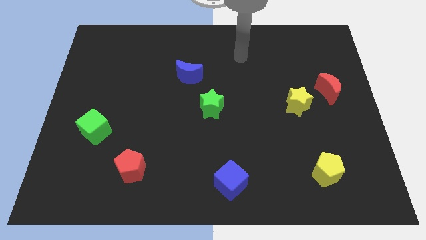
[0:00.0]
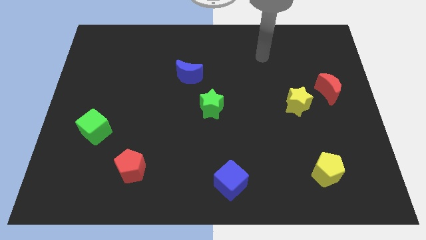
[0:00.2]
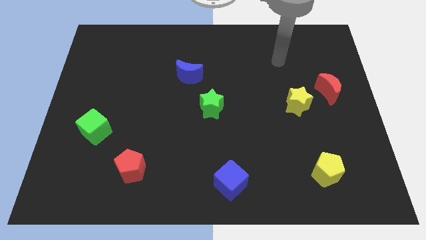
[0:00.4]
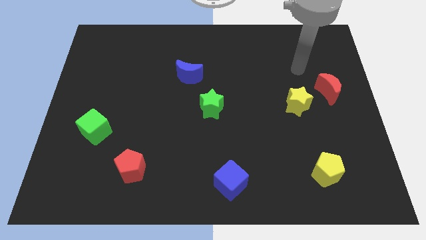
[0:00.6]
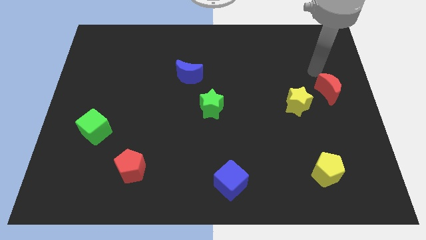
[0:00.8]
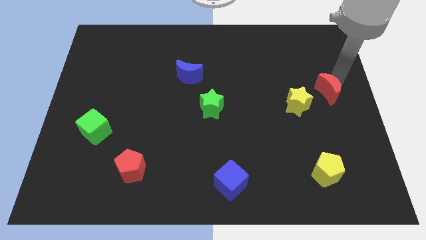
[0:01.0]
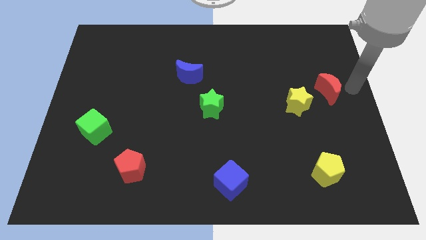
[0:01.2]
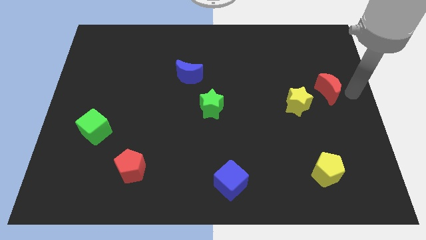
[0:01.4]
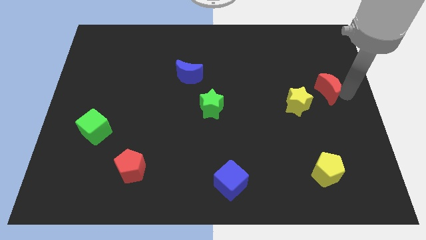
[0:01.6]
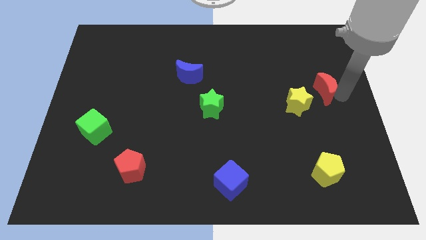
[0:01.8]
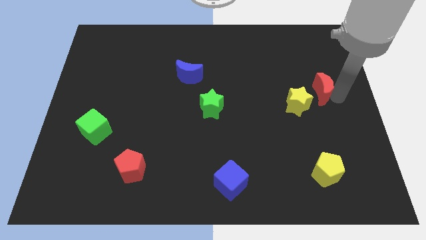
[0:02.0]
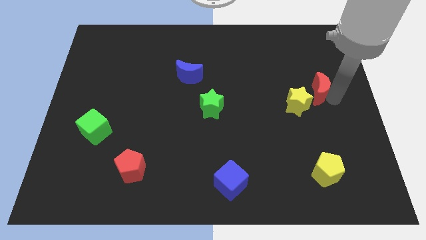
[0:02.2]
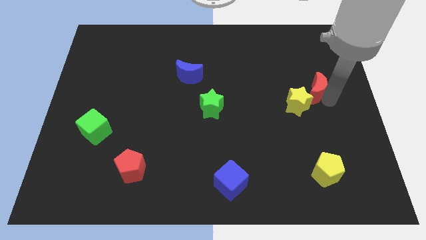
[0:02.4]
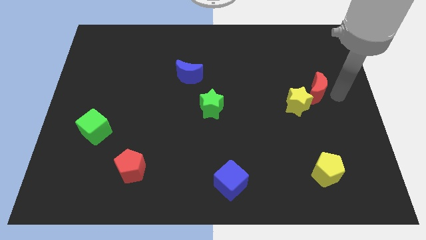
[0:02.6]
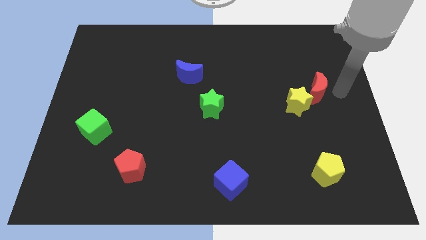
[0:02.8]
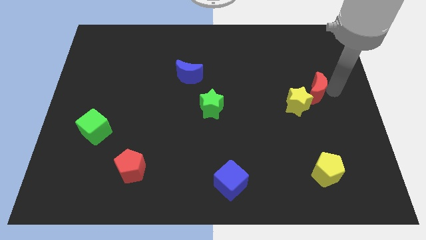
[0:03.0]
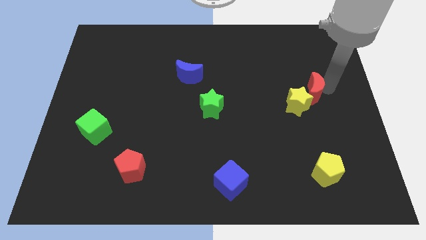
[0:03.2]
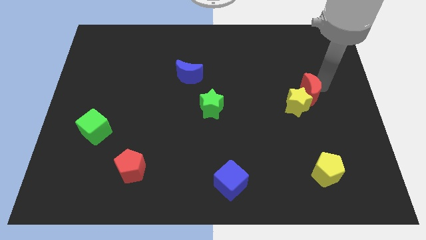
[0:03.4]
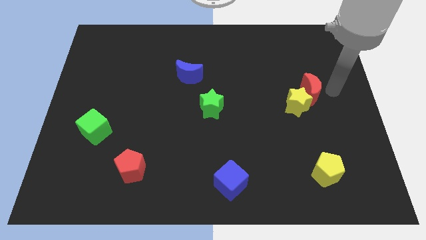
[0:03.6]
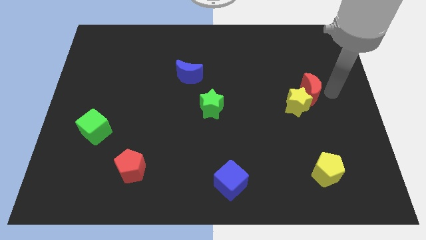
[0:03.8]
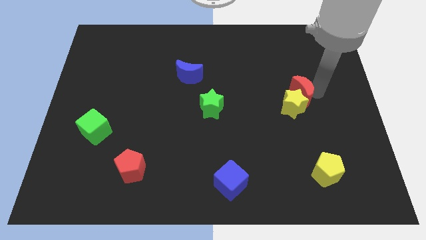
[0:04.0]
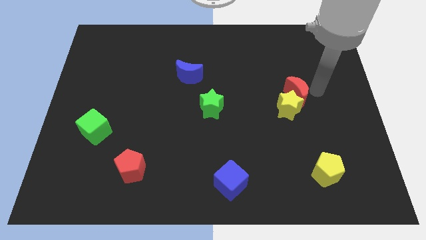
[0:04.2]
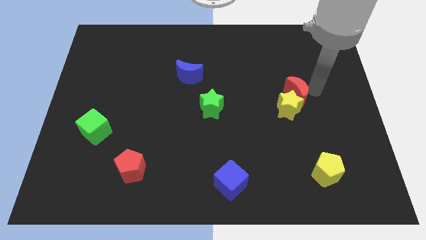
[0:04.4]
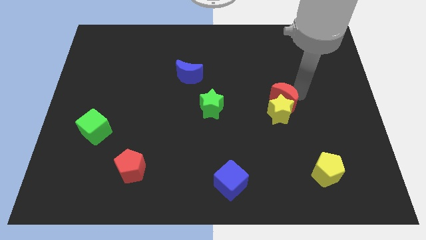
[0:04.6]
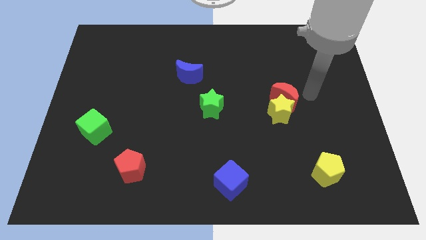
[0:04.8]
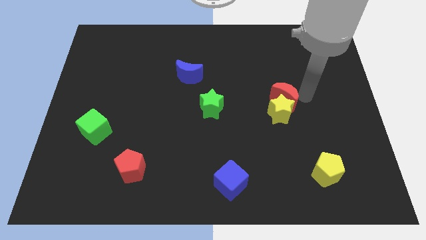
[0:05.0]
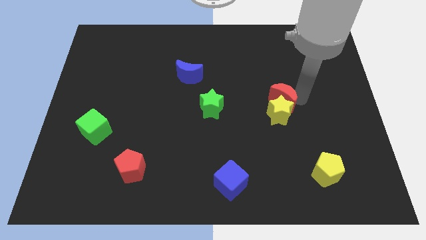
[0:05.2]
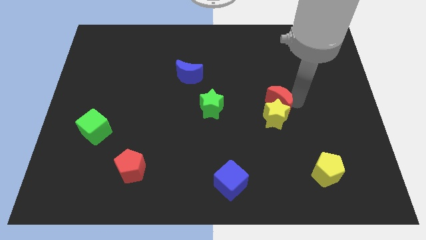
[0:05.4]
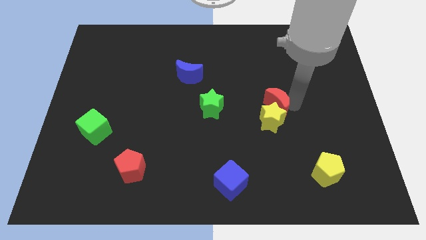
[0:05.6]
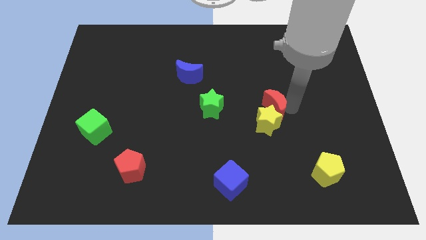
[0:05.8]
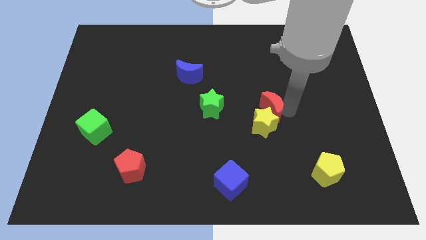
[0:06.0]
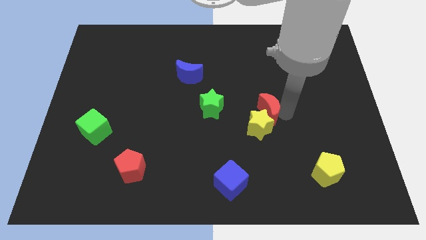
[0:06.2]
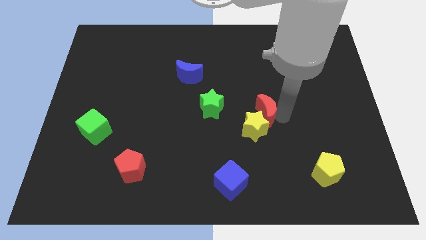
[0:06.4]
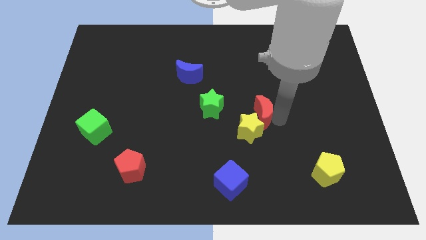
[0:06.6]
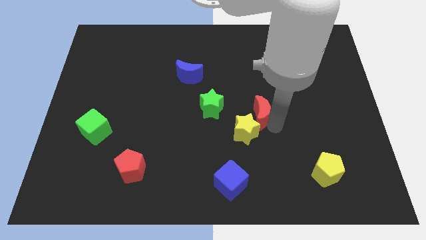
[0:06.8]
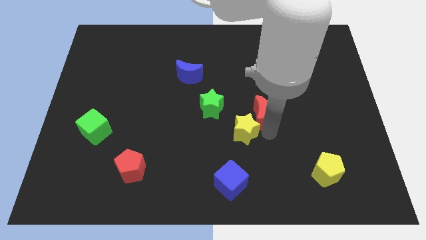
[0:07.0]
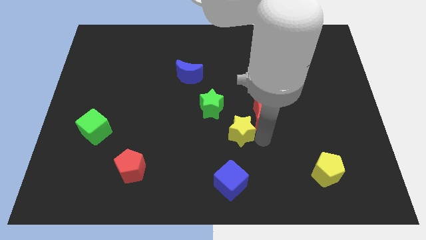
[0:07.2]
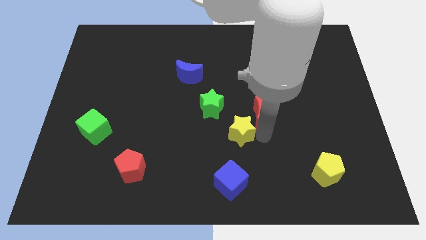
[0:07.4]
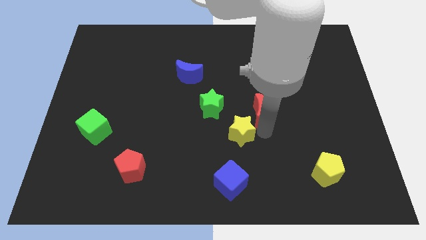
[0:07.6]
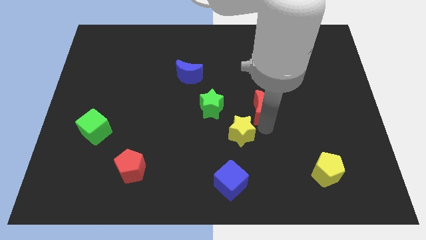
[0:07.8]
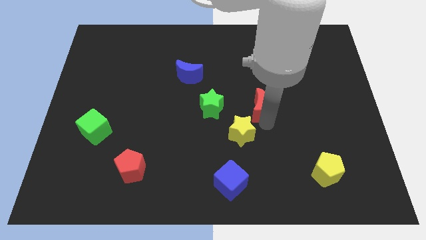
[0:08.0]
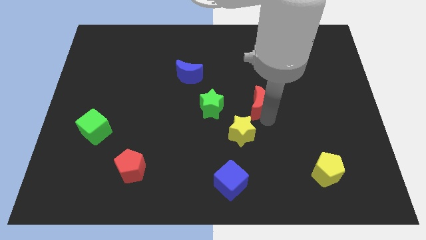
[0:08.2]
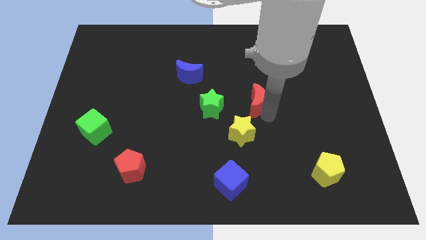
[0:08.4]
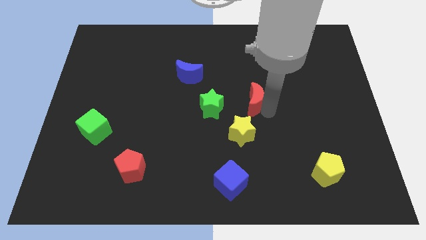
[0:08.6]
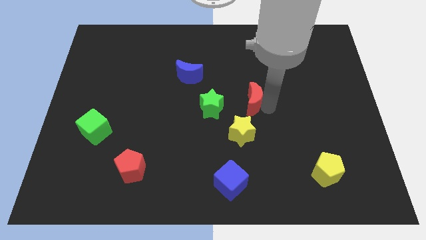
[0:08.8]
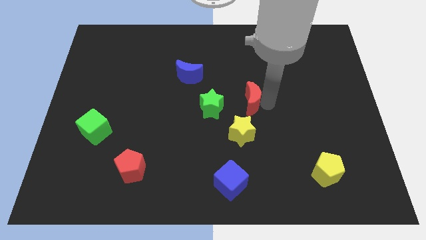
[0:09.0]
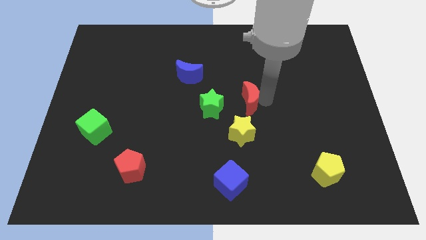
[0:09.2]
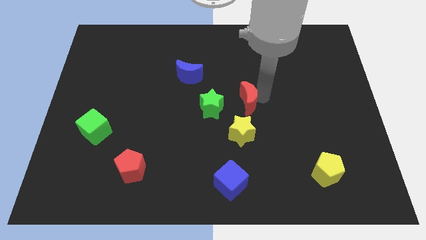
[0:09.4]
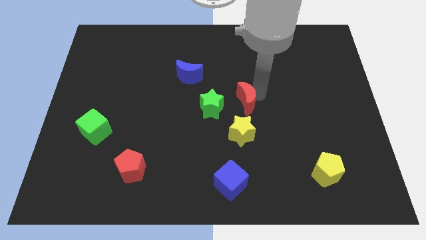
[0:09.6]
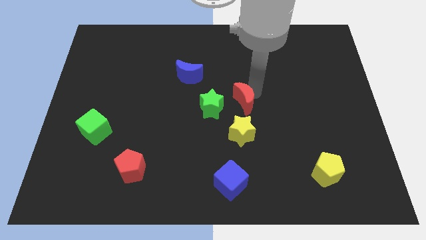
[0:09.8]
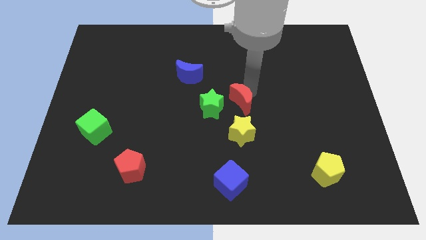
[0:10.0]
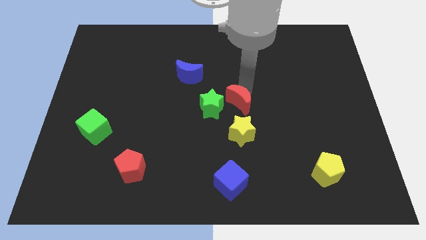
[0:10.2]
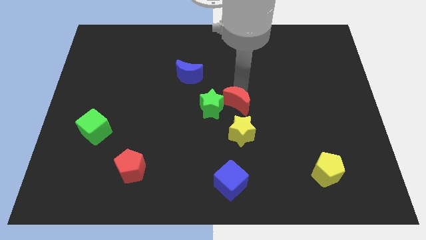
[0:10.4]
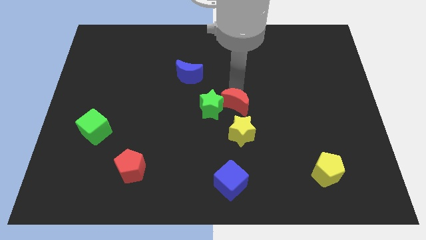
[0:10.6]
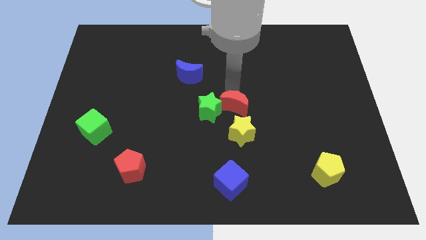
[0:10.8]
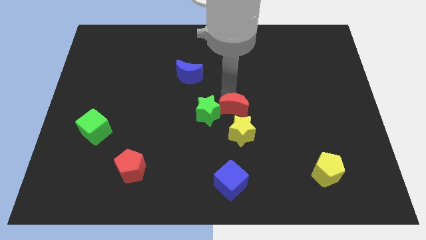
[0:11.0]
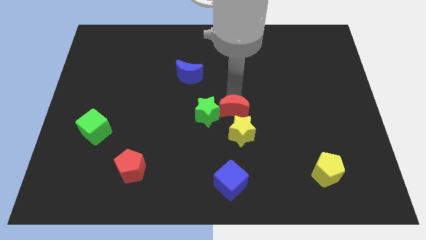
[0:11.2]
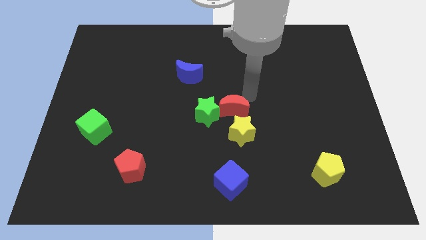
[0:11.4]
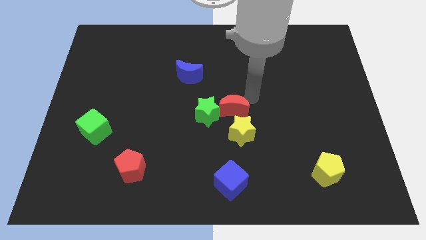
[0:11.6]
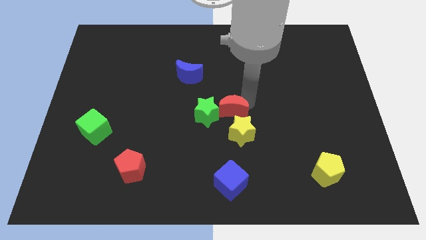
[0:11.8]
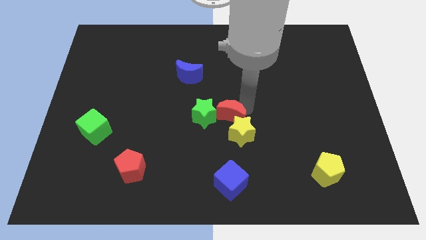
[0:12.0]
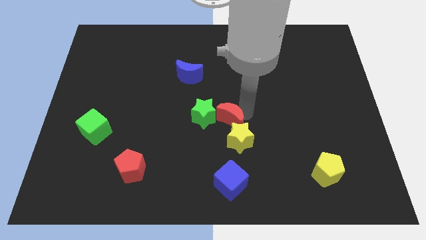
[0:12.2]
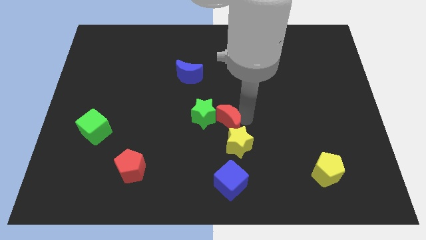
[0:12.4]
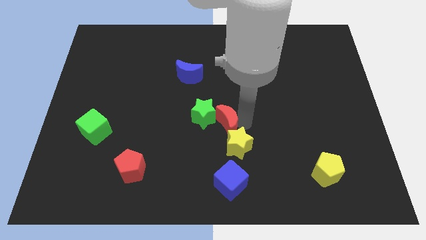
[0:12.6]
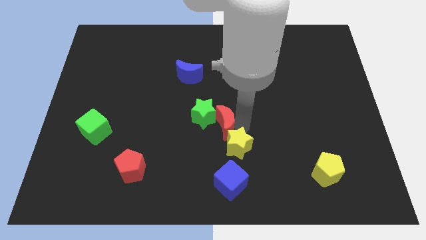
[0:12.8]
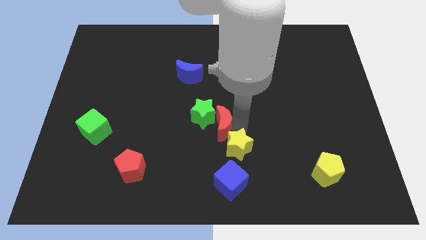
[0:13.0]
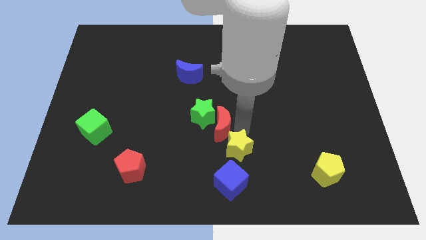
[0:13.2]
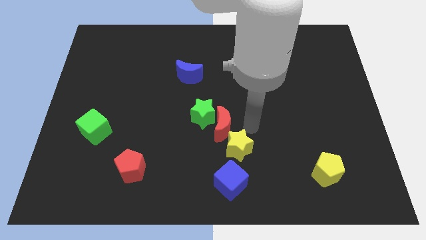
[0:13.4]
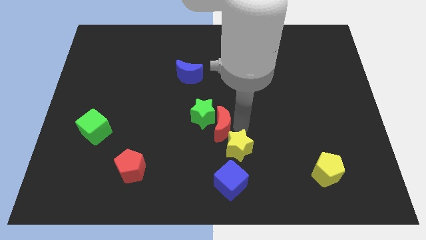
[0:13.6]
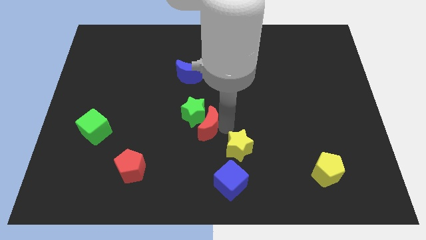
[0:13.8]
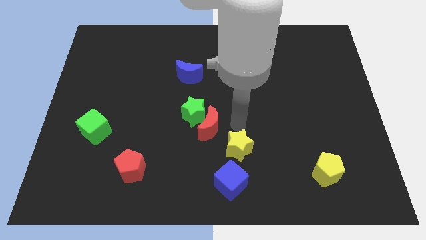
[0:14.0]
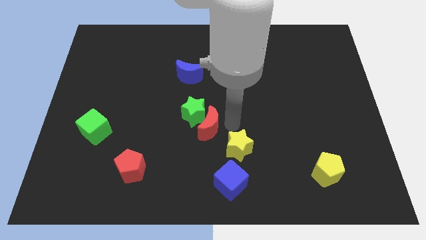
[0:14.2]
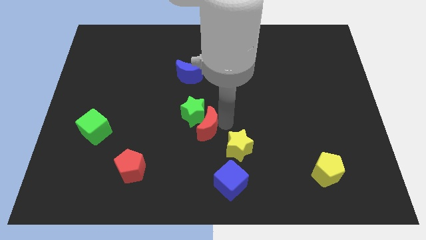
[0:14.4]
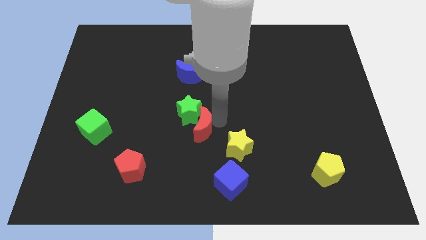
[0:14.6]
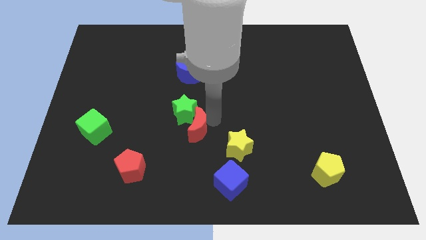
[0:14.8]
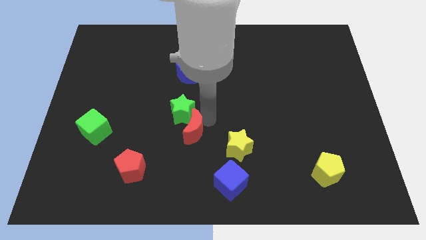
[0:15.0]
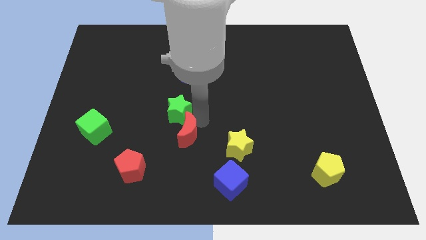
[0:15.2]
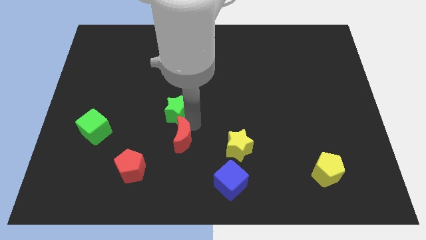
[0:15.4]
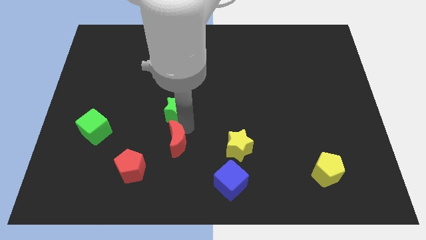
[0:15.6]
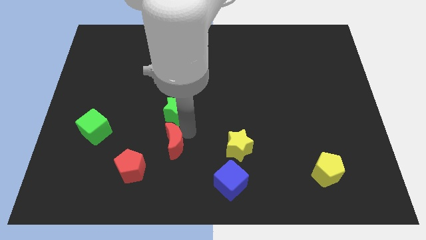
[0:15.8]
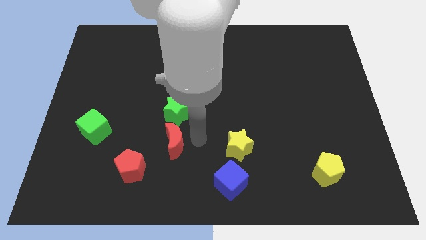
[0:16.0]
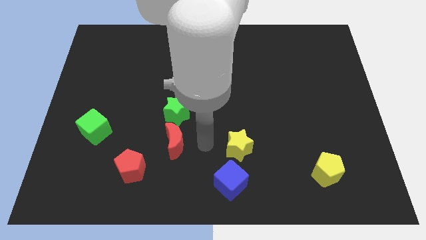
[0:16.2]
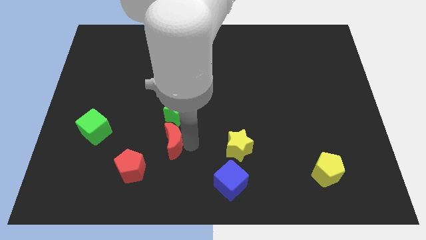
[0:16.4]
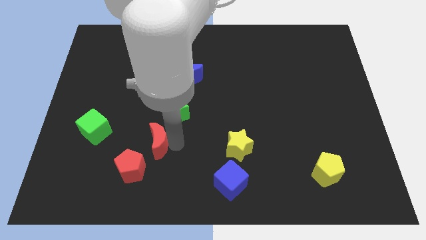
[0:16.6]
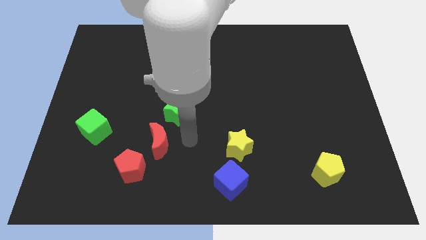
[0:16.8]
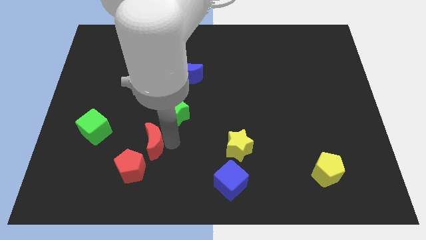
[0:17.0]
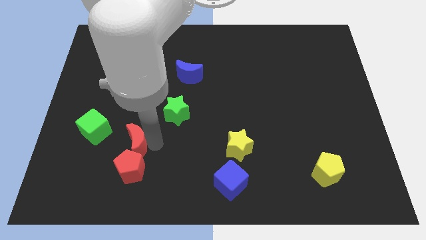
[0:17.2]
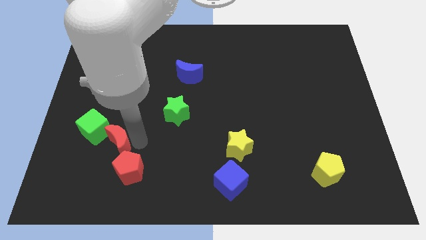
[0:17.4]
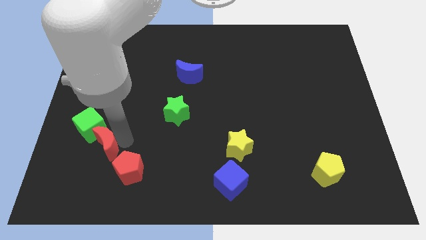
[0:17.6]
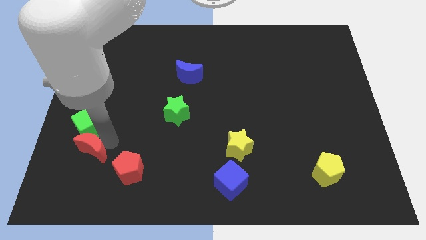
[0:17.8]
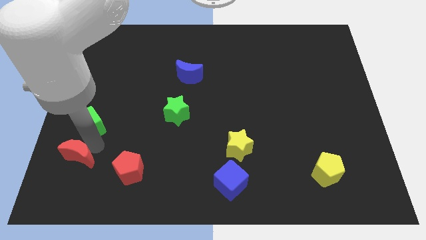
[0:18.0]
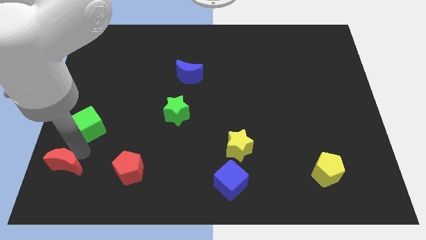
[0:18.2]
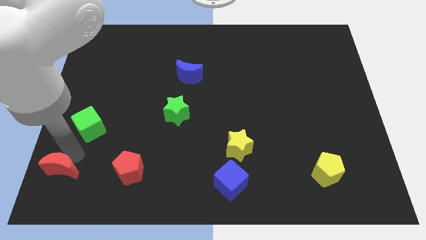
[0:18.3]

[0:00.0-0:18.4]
move the red moon to the bottom left
